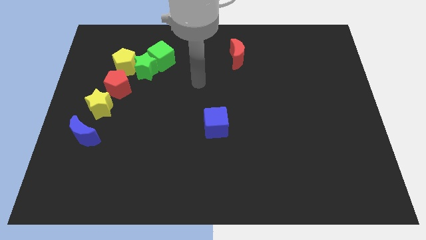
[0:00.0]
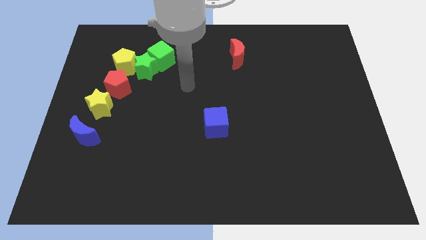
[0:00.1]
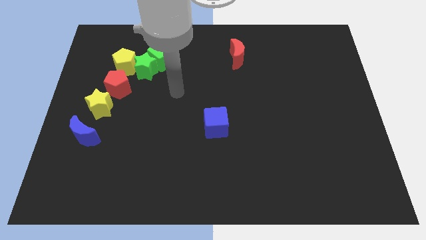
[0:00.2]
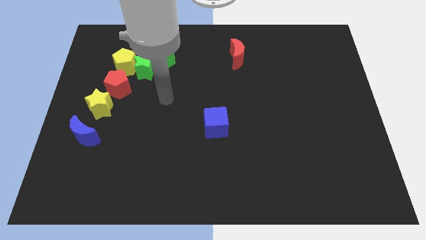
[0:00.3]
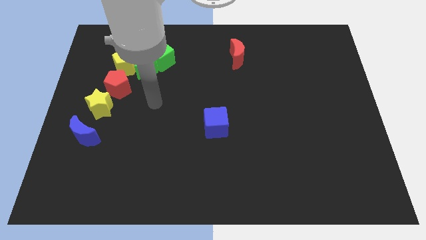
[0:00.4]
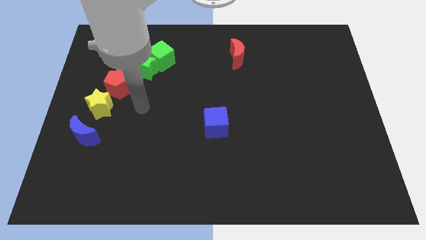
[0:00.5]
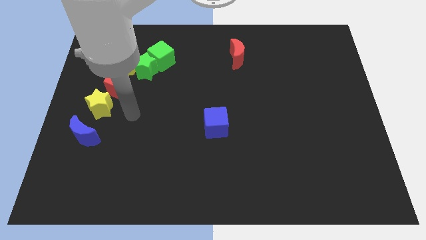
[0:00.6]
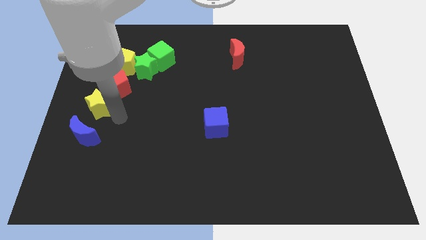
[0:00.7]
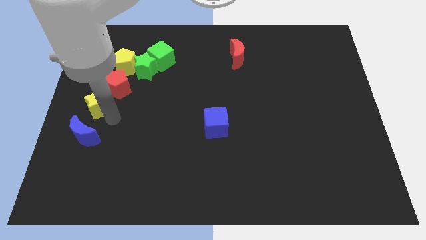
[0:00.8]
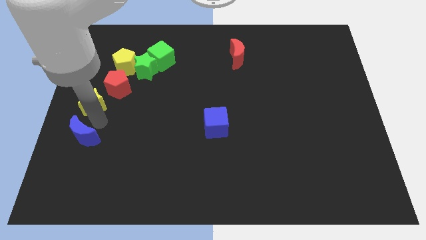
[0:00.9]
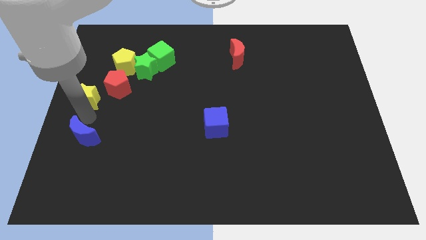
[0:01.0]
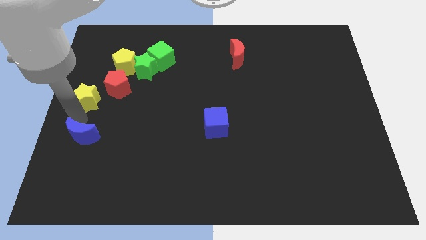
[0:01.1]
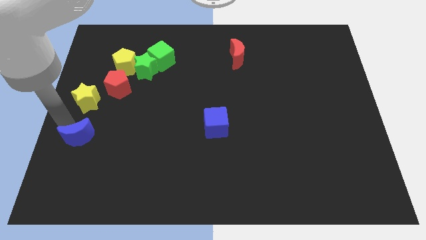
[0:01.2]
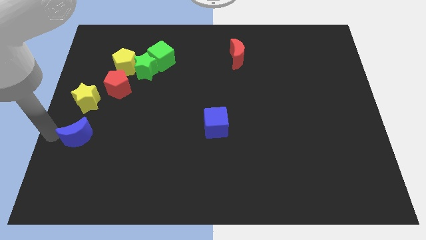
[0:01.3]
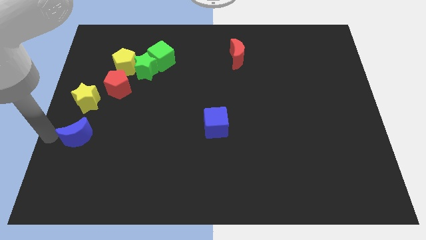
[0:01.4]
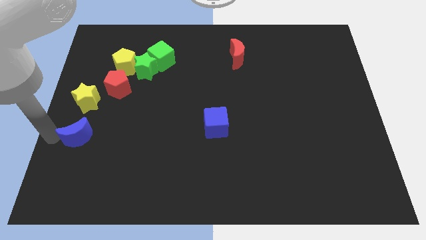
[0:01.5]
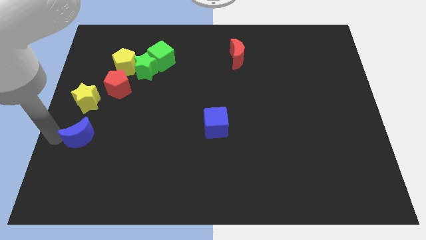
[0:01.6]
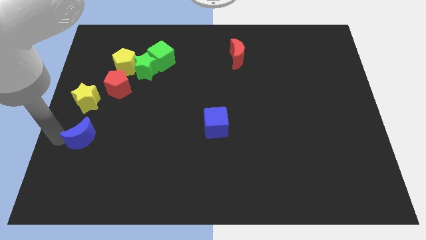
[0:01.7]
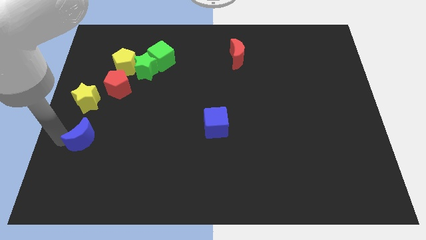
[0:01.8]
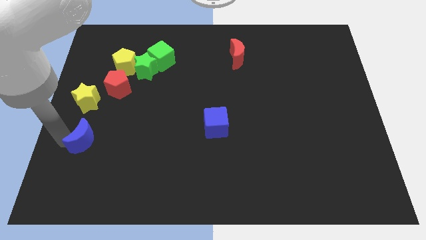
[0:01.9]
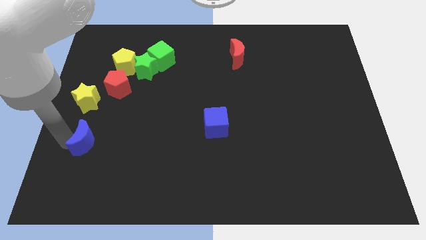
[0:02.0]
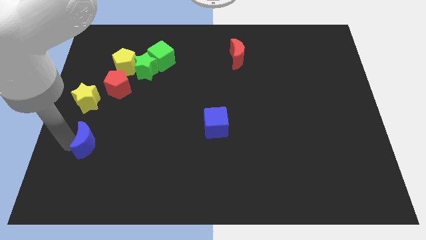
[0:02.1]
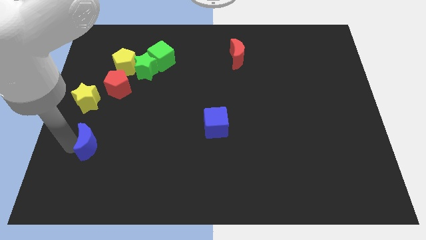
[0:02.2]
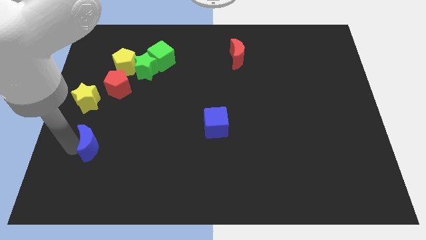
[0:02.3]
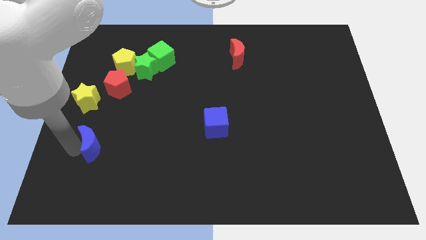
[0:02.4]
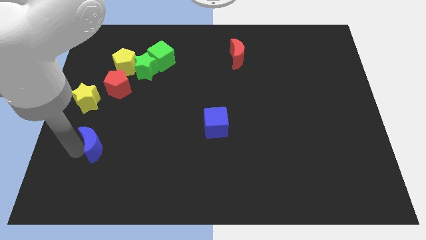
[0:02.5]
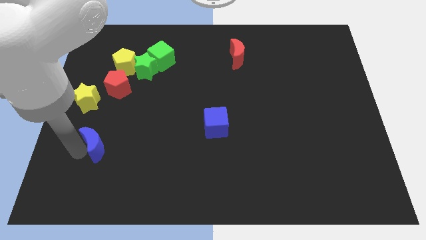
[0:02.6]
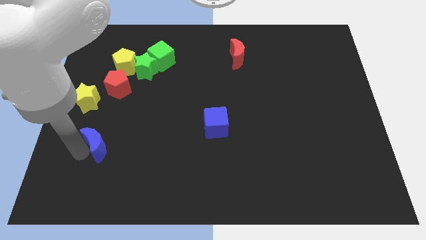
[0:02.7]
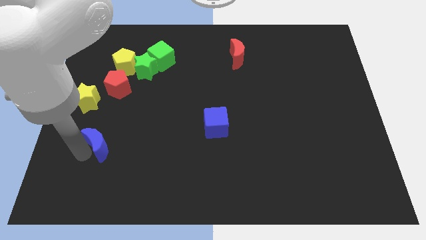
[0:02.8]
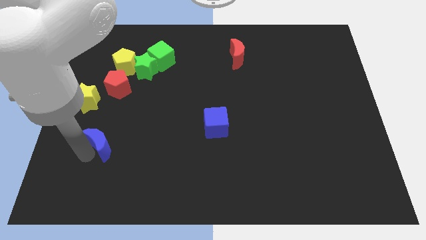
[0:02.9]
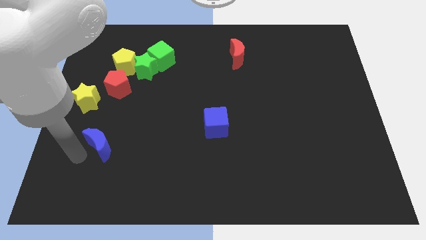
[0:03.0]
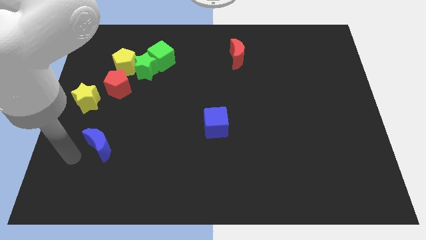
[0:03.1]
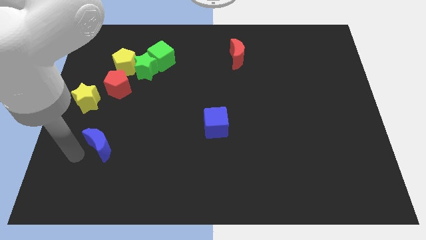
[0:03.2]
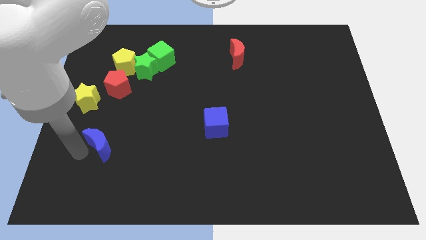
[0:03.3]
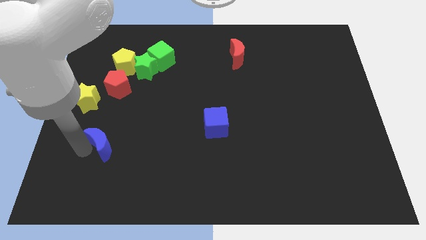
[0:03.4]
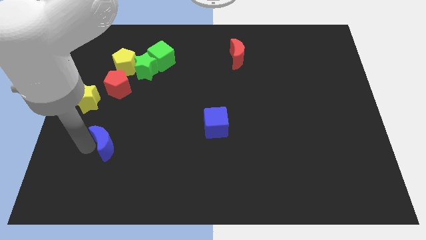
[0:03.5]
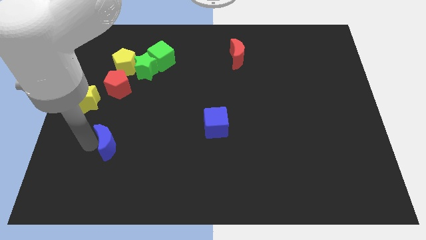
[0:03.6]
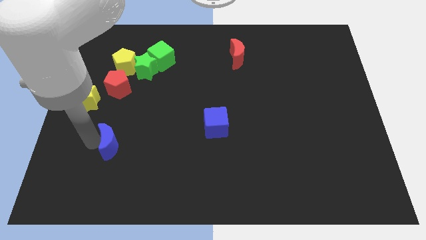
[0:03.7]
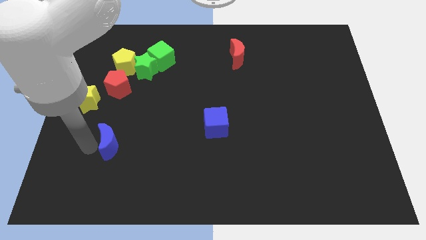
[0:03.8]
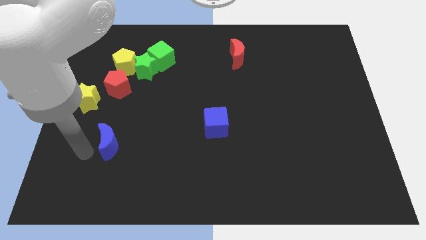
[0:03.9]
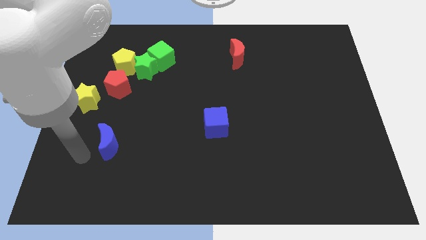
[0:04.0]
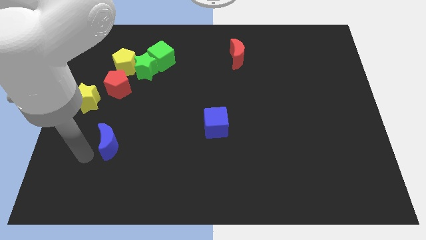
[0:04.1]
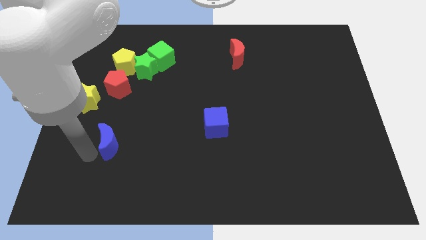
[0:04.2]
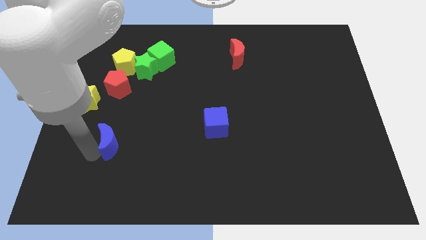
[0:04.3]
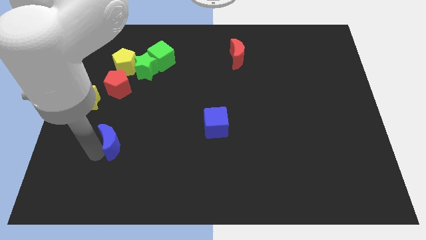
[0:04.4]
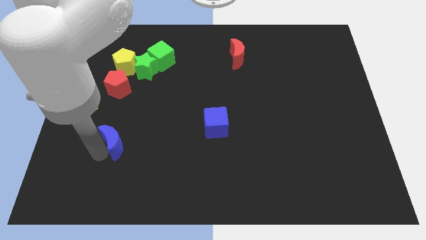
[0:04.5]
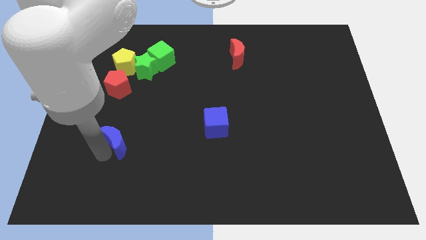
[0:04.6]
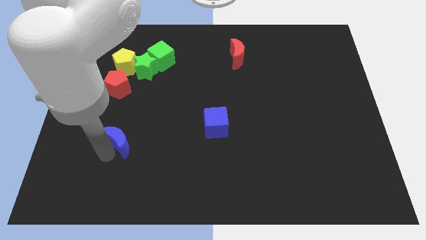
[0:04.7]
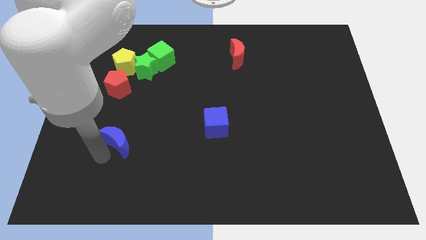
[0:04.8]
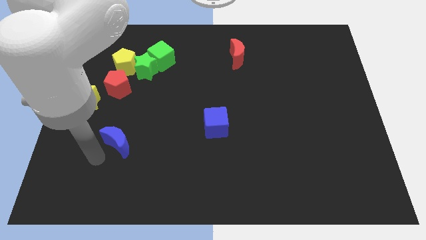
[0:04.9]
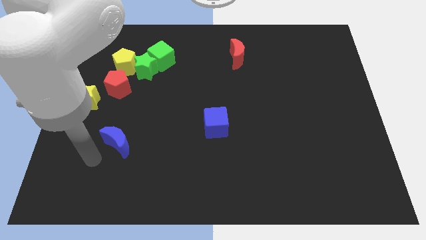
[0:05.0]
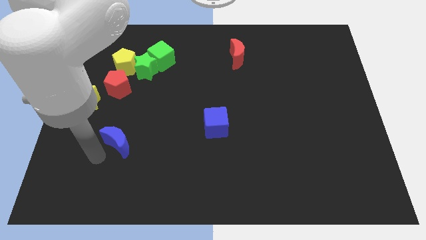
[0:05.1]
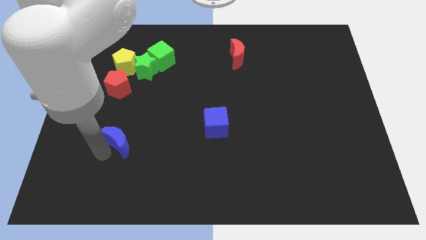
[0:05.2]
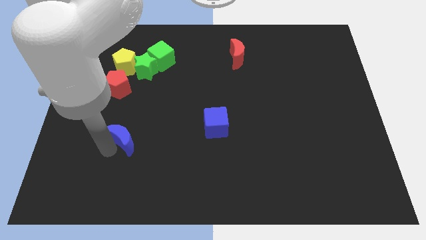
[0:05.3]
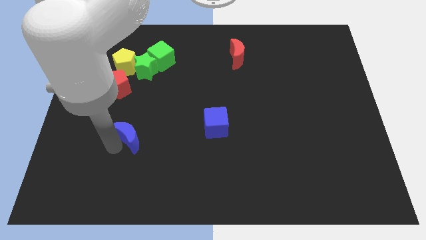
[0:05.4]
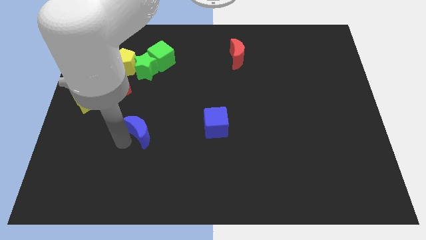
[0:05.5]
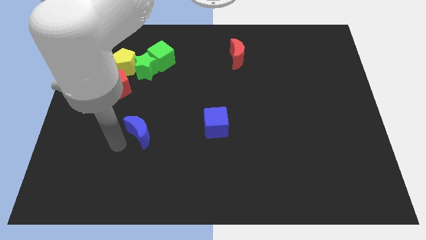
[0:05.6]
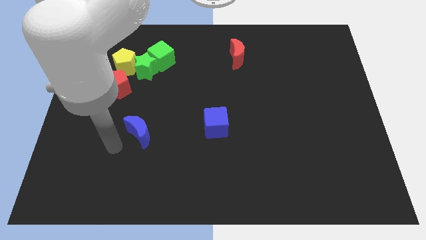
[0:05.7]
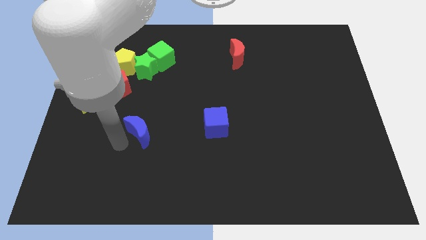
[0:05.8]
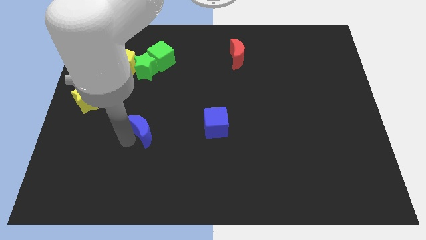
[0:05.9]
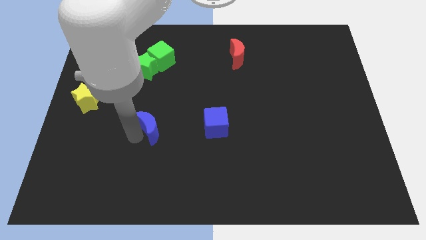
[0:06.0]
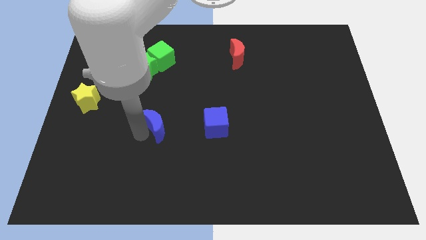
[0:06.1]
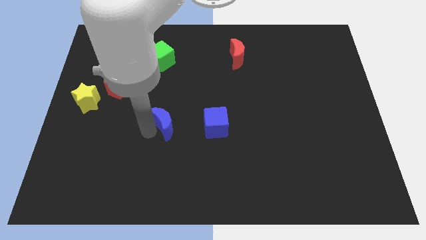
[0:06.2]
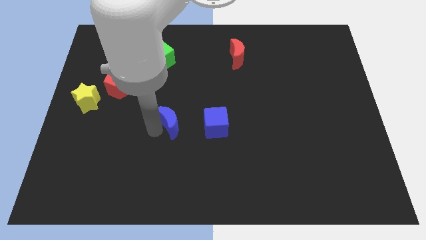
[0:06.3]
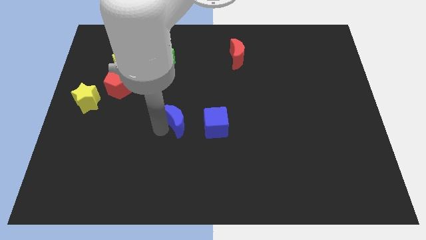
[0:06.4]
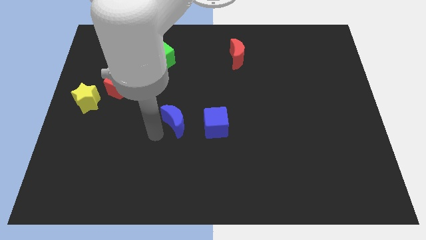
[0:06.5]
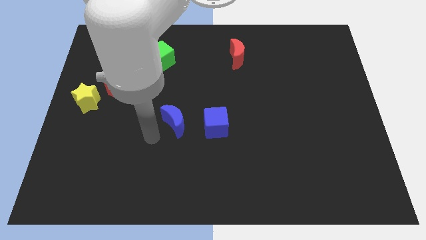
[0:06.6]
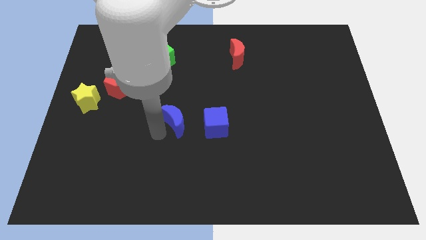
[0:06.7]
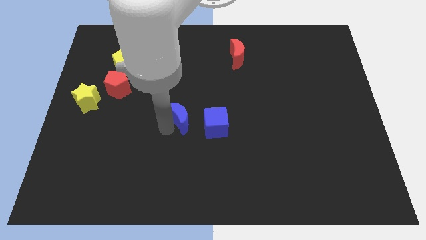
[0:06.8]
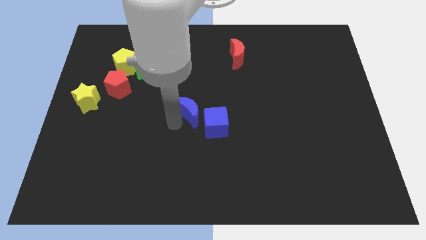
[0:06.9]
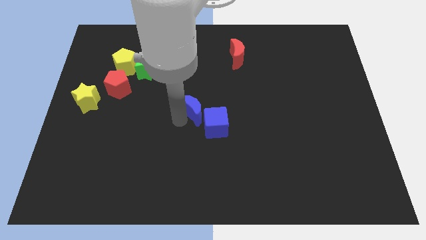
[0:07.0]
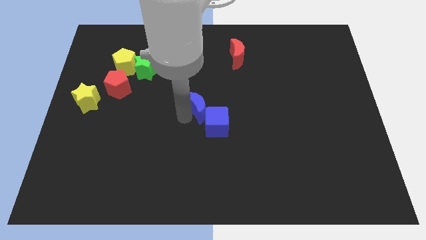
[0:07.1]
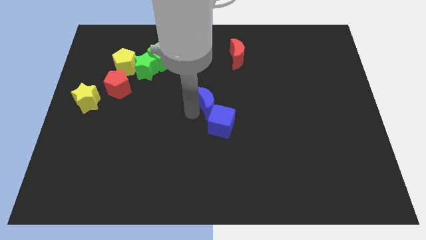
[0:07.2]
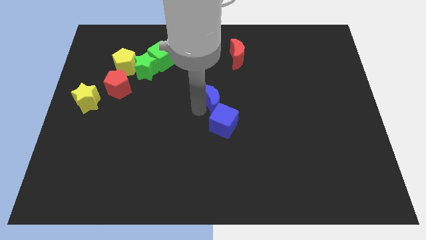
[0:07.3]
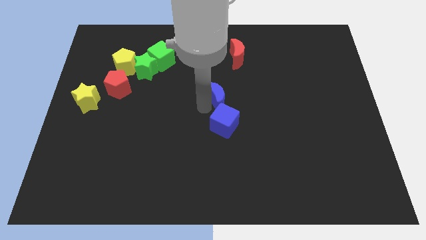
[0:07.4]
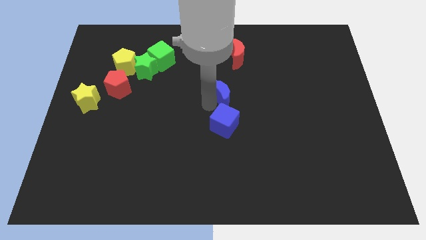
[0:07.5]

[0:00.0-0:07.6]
put the blue moon to the bottom of the red moon
